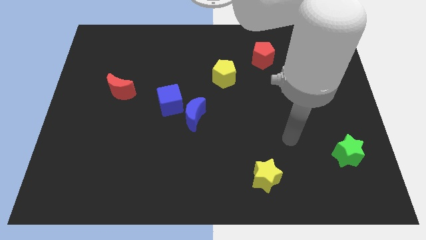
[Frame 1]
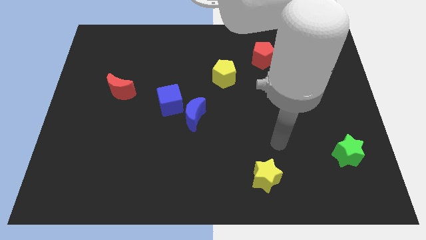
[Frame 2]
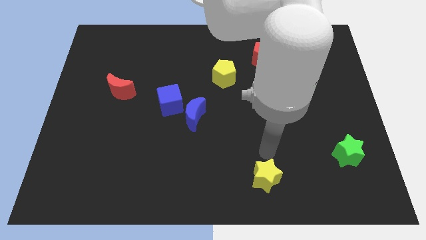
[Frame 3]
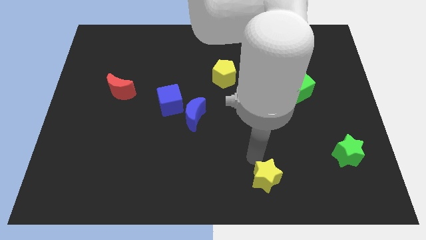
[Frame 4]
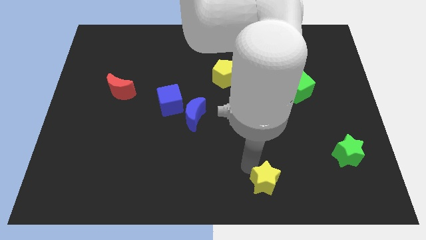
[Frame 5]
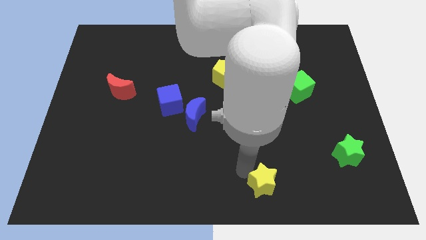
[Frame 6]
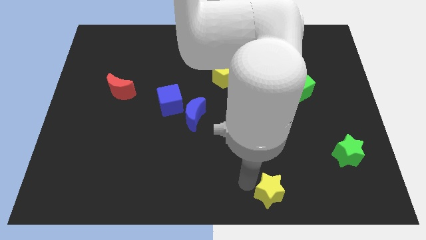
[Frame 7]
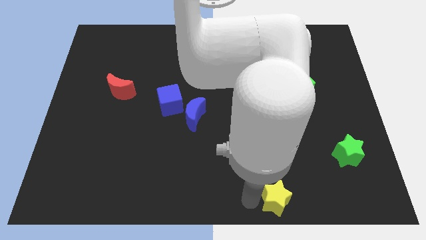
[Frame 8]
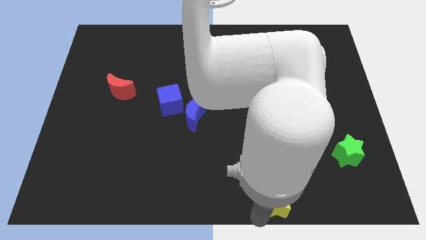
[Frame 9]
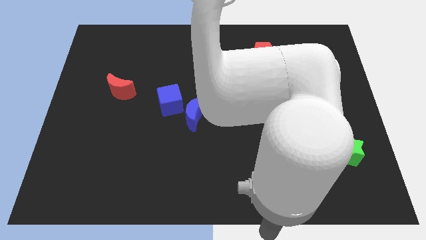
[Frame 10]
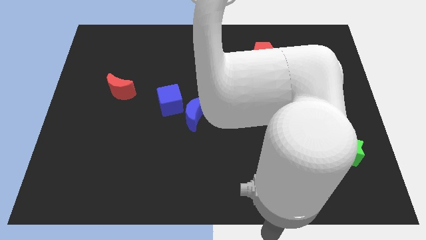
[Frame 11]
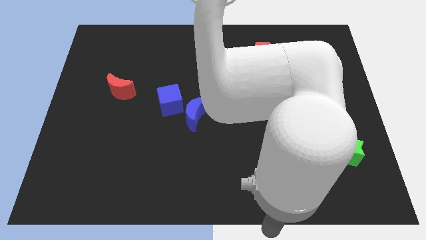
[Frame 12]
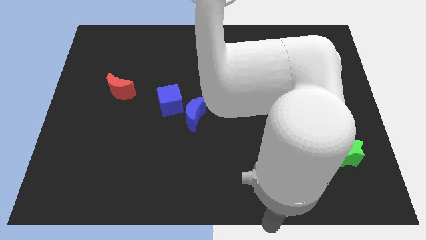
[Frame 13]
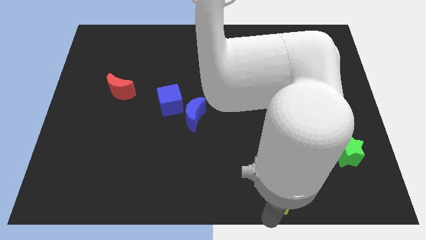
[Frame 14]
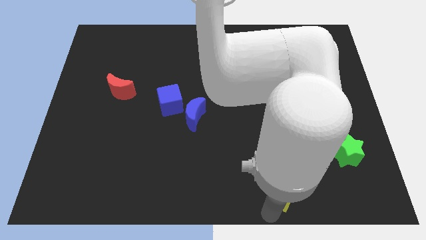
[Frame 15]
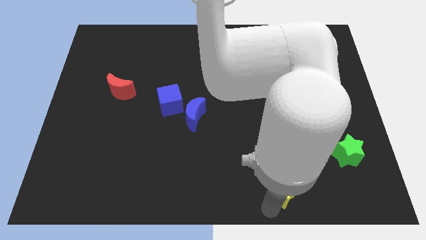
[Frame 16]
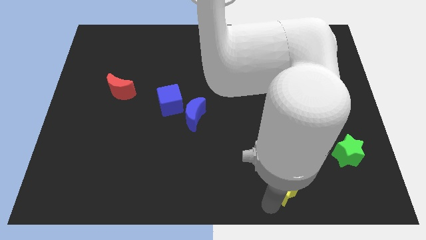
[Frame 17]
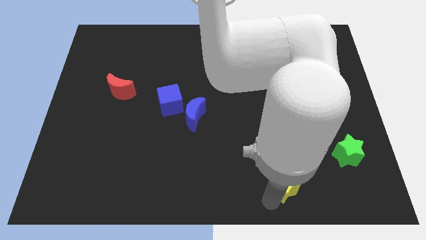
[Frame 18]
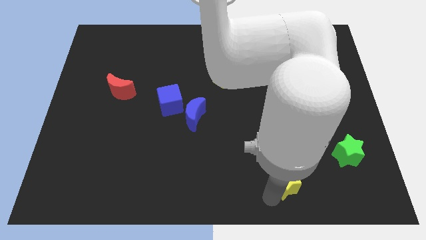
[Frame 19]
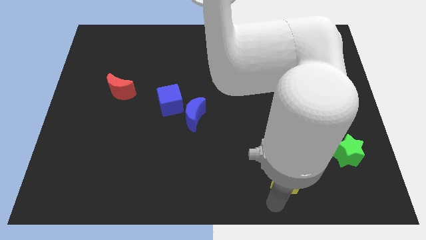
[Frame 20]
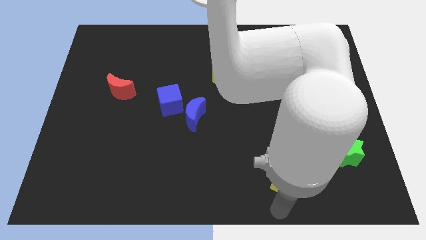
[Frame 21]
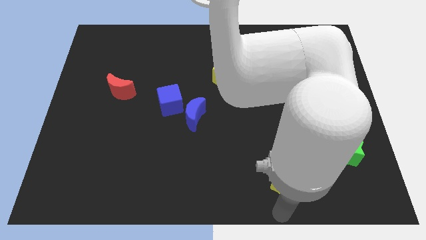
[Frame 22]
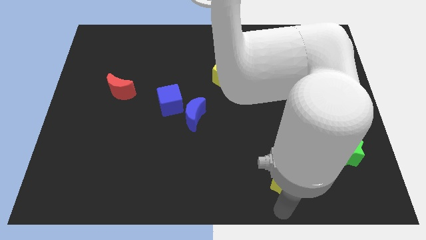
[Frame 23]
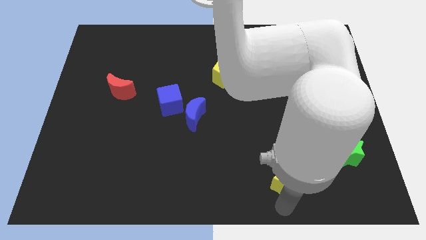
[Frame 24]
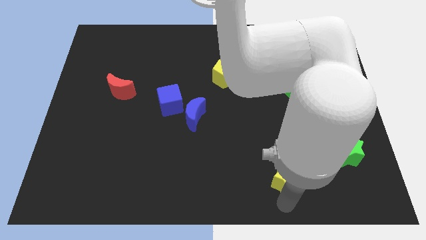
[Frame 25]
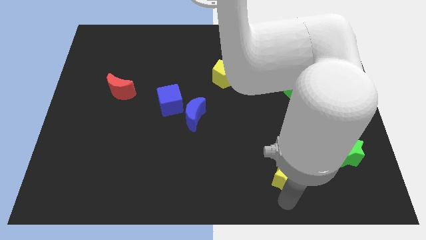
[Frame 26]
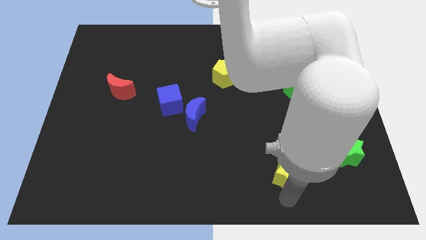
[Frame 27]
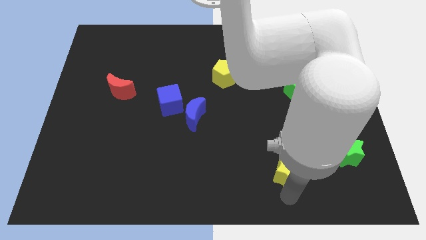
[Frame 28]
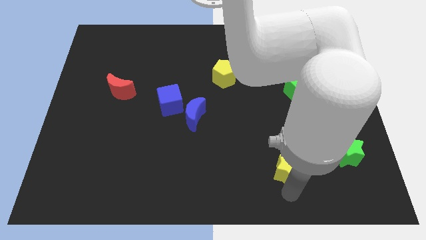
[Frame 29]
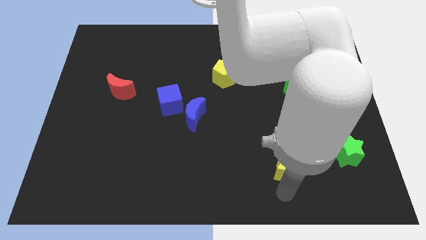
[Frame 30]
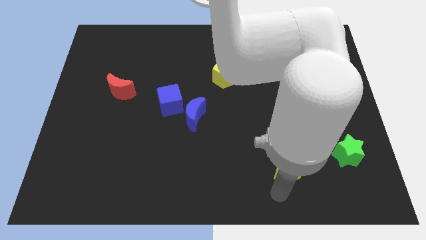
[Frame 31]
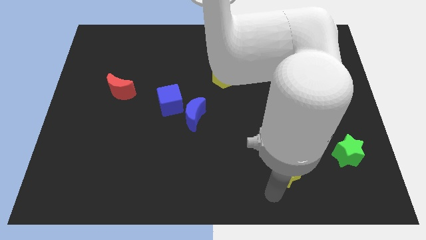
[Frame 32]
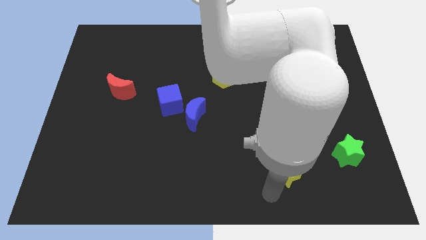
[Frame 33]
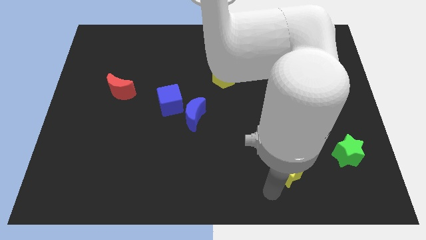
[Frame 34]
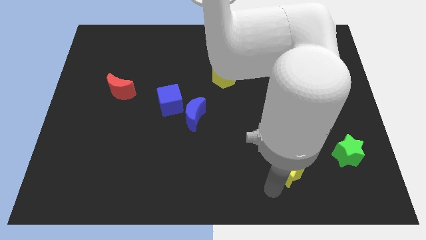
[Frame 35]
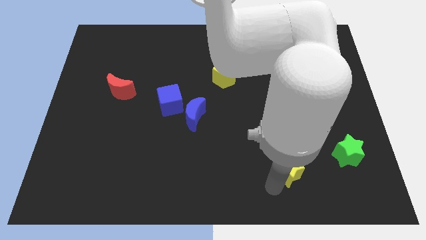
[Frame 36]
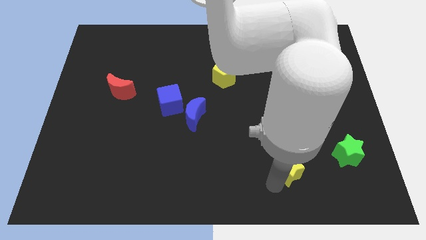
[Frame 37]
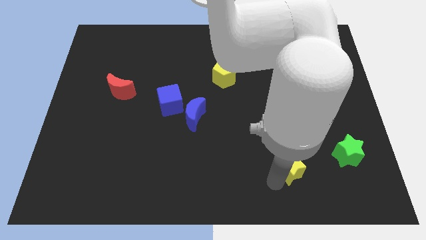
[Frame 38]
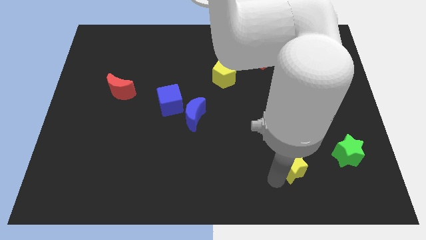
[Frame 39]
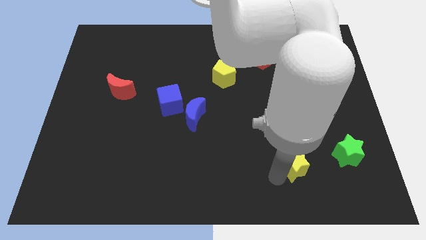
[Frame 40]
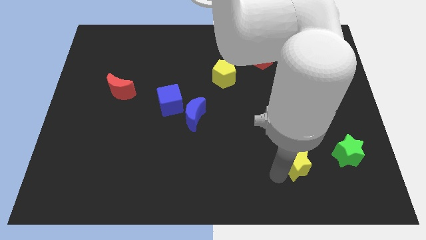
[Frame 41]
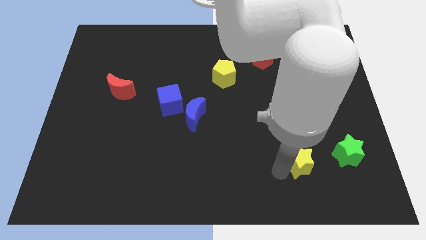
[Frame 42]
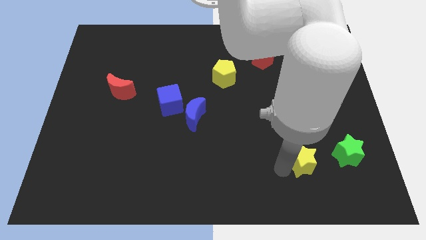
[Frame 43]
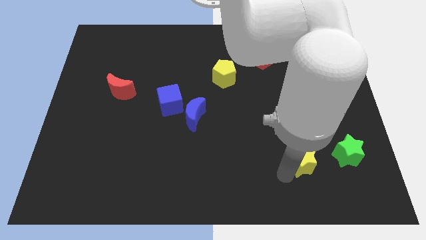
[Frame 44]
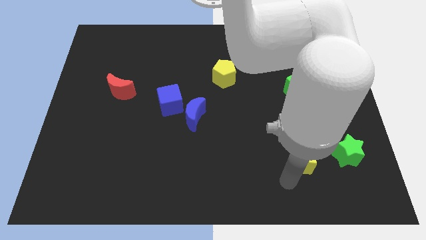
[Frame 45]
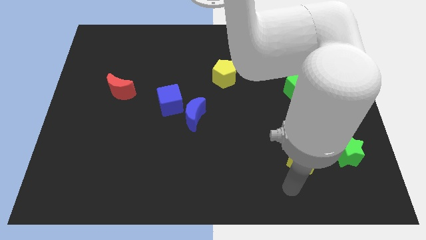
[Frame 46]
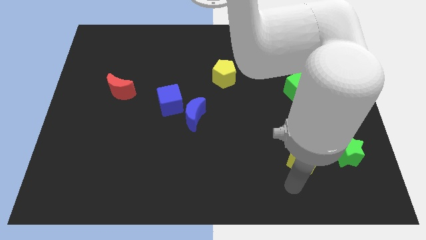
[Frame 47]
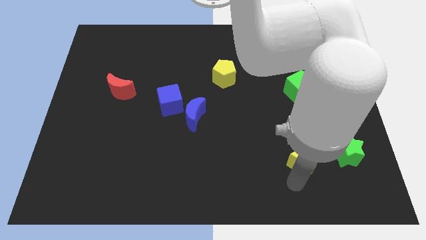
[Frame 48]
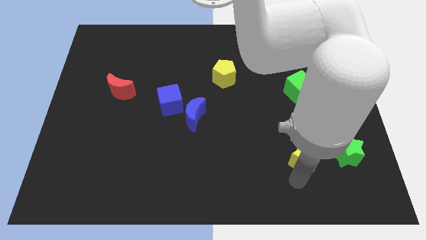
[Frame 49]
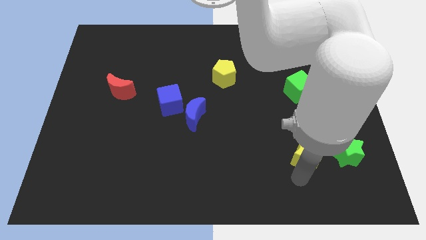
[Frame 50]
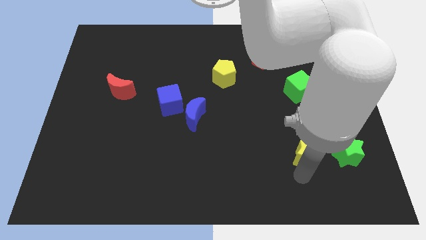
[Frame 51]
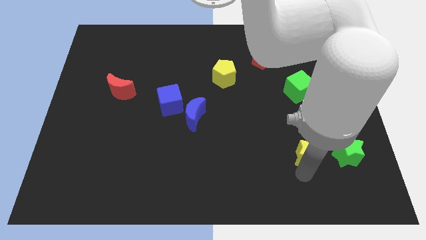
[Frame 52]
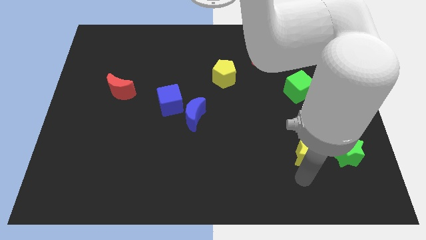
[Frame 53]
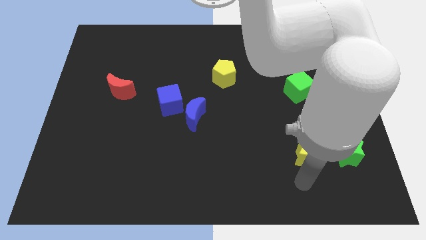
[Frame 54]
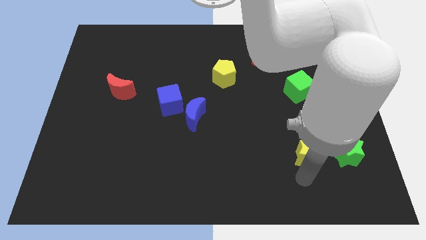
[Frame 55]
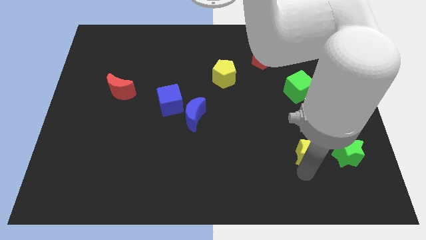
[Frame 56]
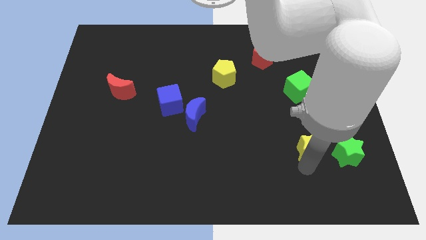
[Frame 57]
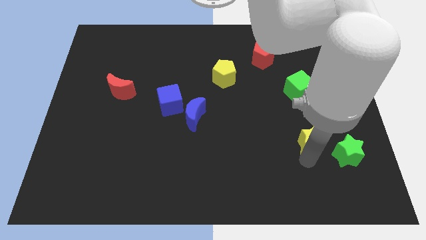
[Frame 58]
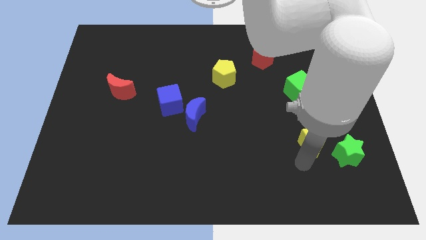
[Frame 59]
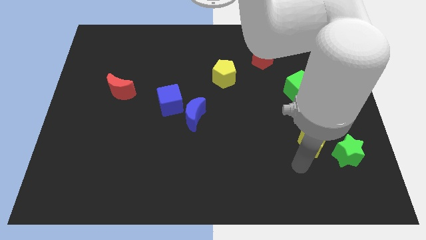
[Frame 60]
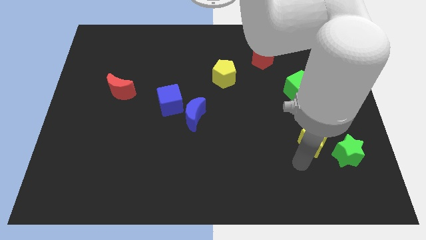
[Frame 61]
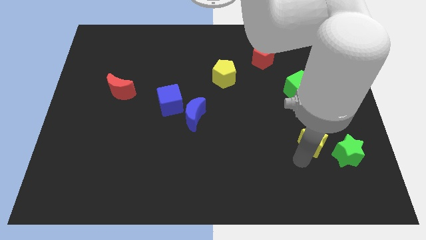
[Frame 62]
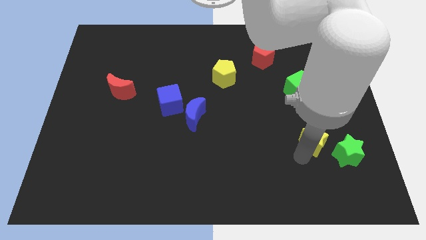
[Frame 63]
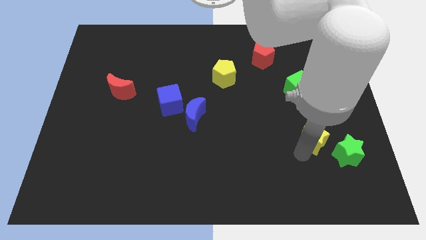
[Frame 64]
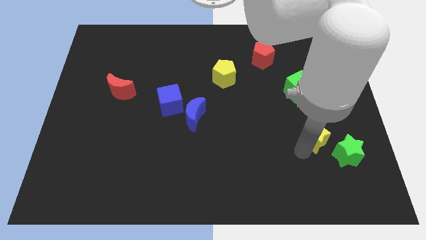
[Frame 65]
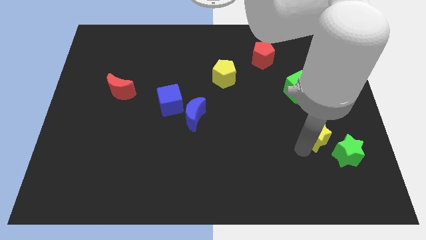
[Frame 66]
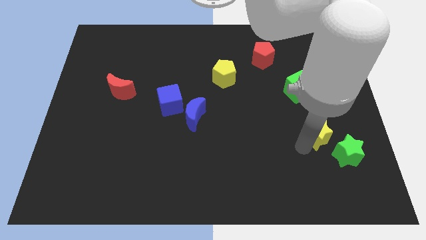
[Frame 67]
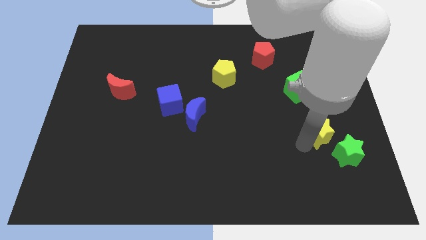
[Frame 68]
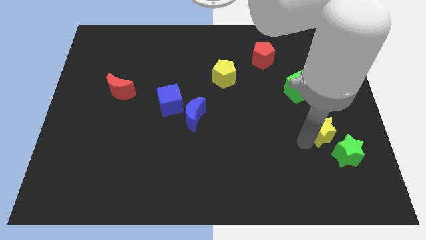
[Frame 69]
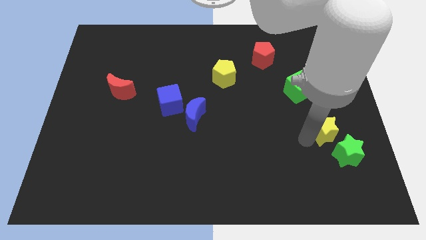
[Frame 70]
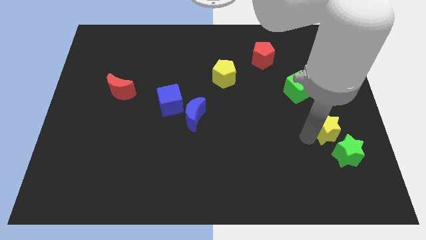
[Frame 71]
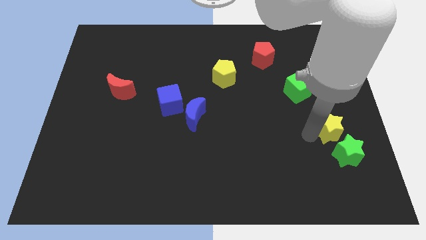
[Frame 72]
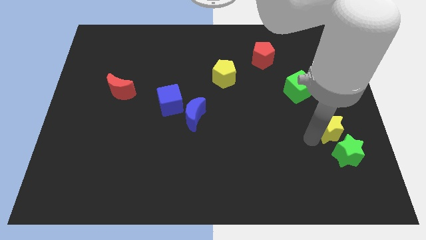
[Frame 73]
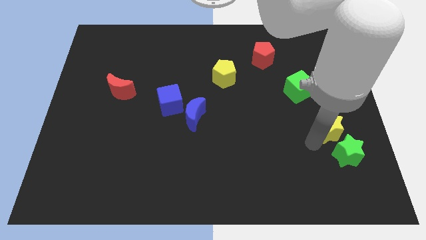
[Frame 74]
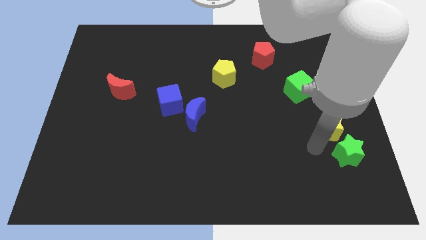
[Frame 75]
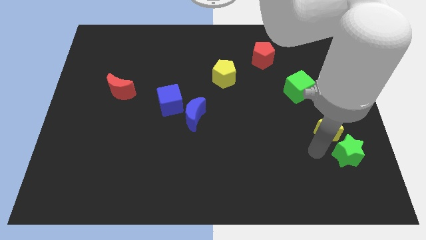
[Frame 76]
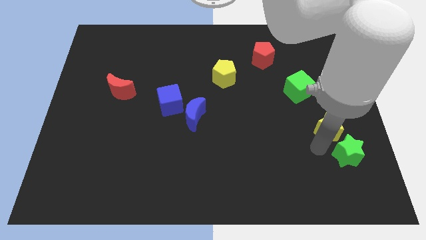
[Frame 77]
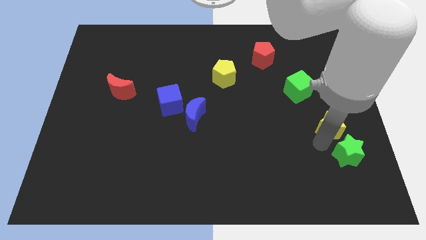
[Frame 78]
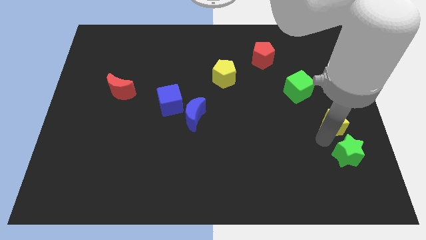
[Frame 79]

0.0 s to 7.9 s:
put the yellow star to the right side
